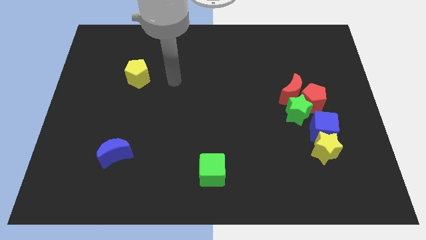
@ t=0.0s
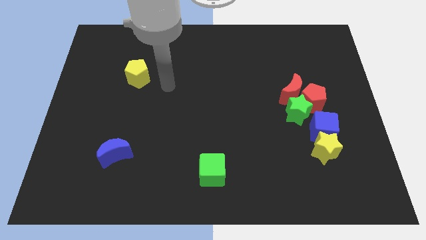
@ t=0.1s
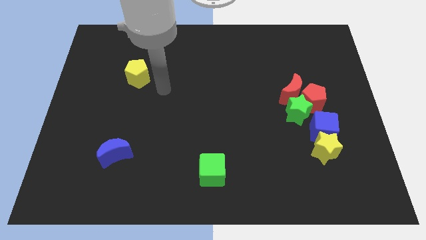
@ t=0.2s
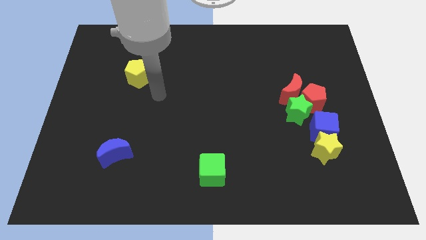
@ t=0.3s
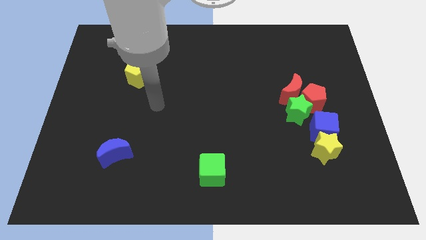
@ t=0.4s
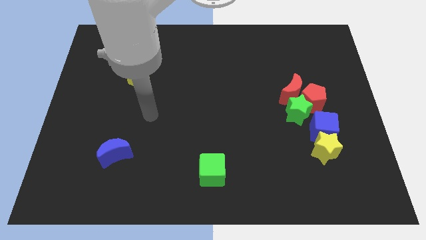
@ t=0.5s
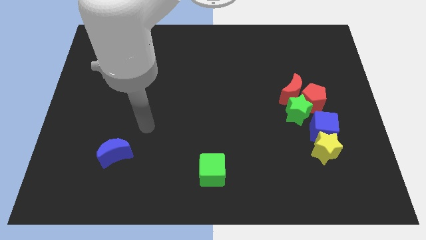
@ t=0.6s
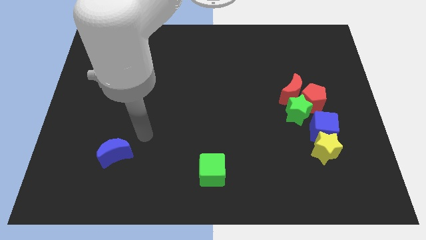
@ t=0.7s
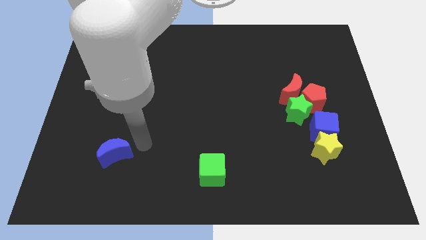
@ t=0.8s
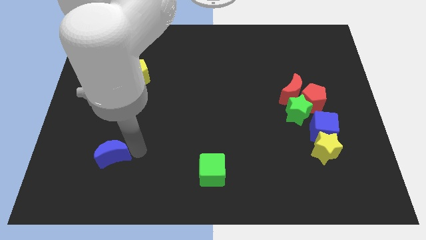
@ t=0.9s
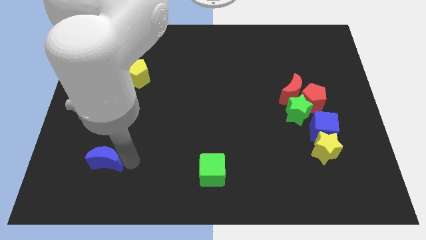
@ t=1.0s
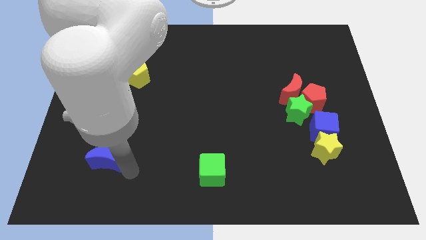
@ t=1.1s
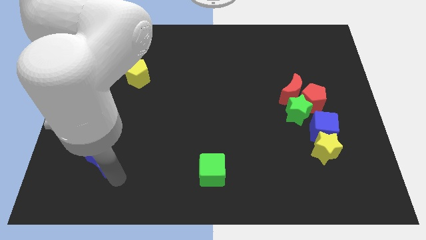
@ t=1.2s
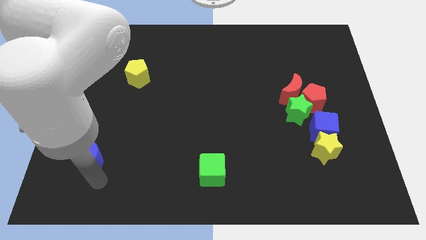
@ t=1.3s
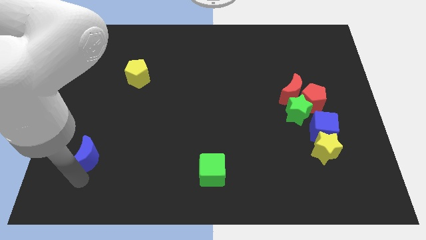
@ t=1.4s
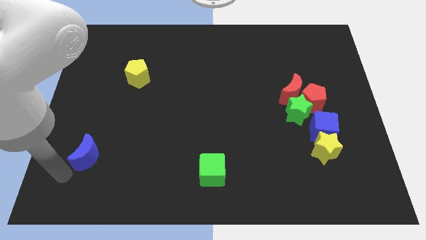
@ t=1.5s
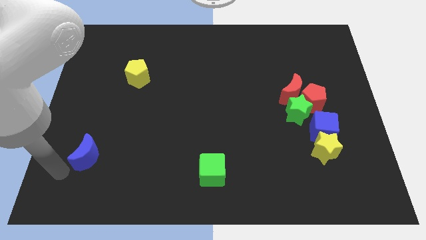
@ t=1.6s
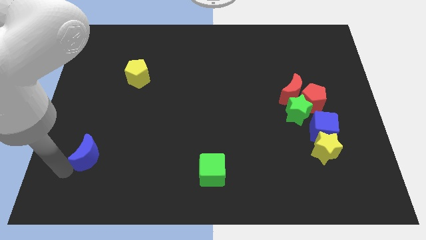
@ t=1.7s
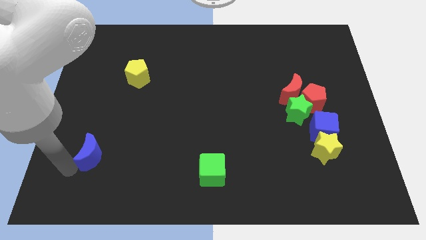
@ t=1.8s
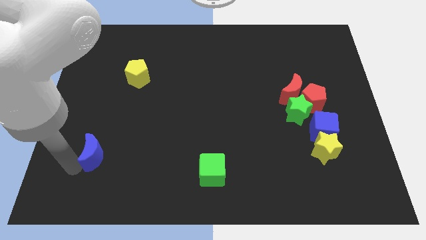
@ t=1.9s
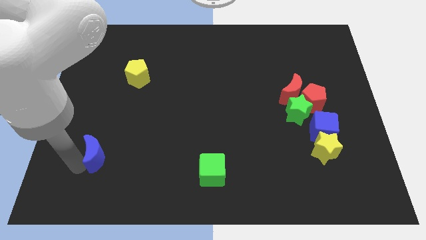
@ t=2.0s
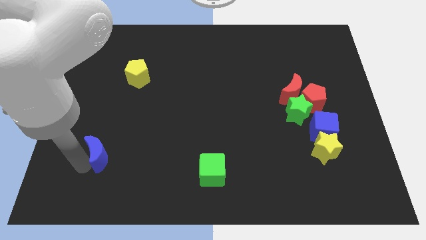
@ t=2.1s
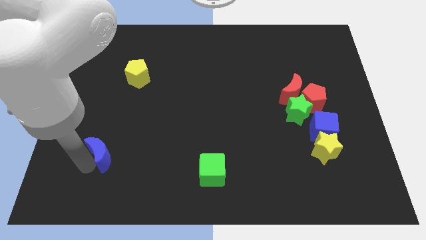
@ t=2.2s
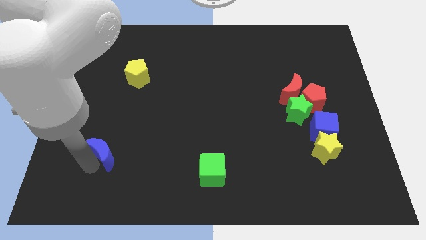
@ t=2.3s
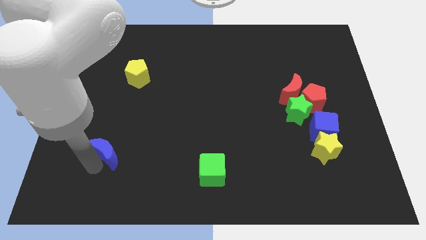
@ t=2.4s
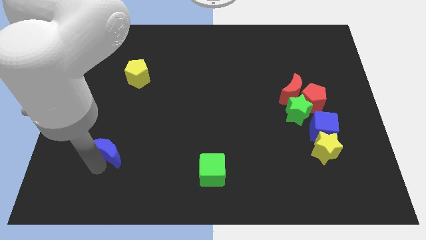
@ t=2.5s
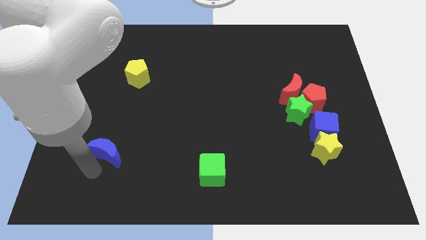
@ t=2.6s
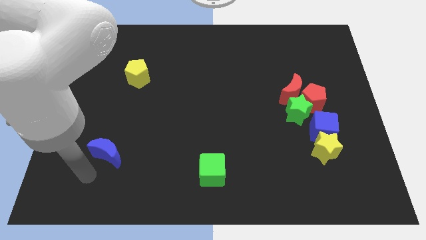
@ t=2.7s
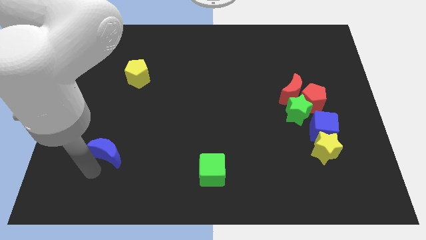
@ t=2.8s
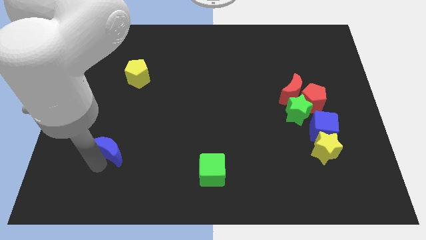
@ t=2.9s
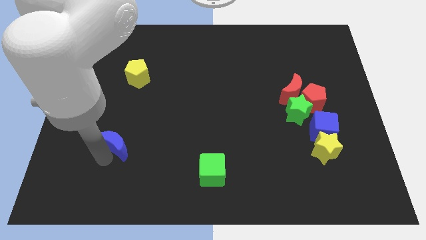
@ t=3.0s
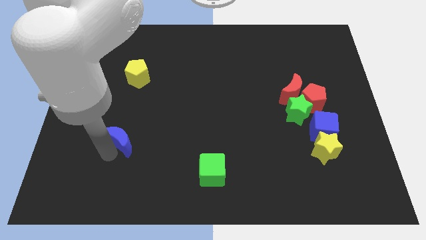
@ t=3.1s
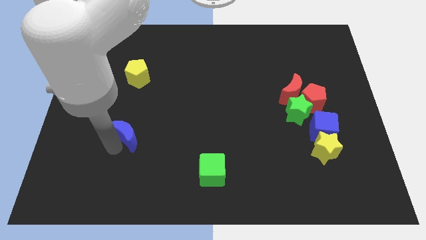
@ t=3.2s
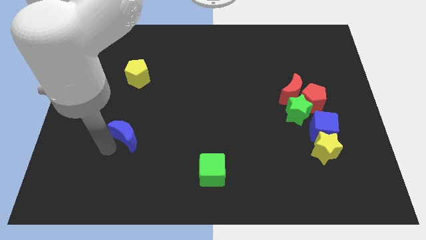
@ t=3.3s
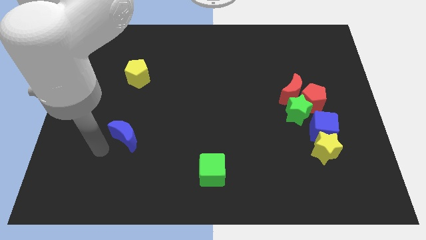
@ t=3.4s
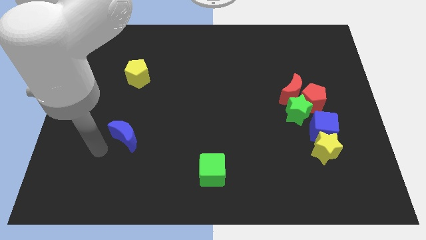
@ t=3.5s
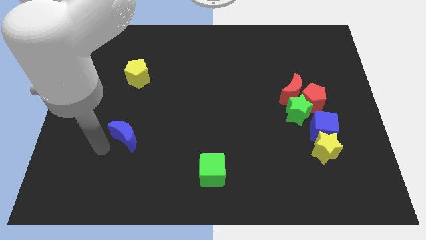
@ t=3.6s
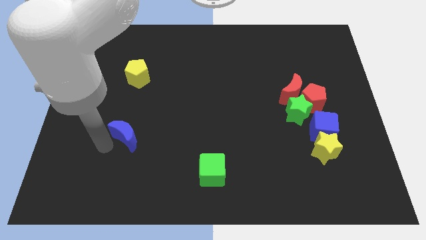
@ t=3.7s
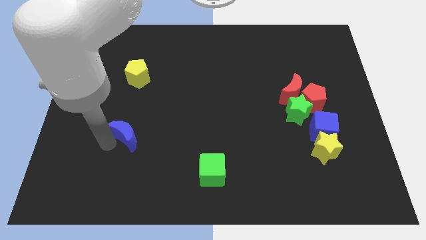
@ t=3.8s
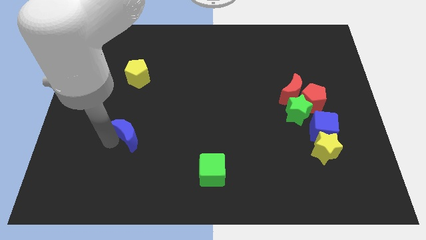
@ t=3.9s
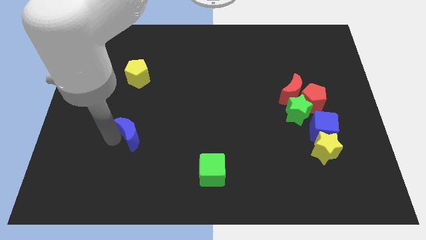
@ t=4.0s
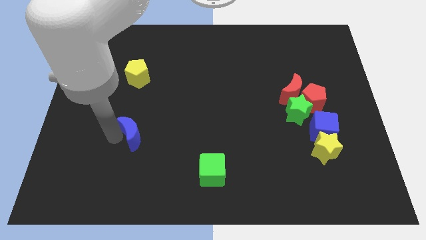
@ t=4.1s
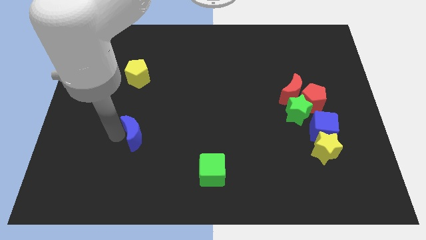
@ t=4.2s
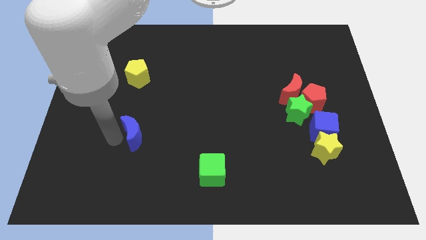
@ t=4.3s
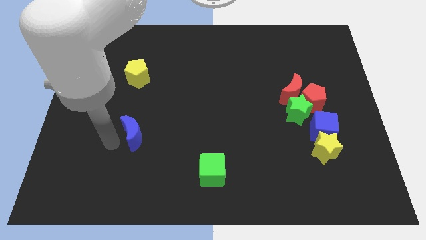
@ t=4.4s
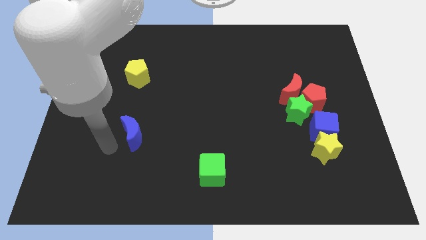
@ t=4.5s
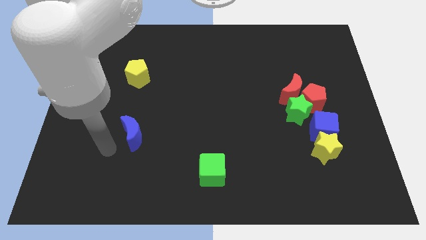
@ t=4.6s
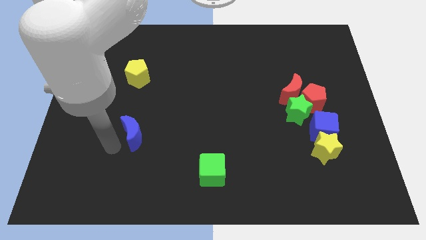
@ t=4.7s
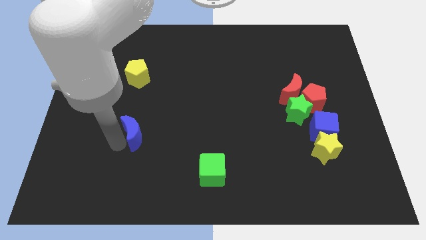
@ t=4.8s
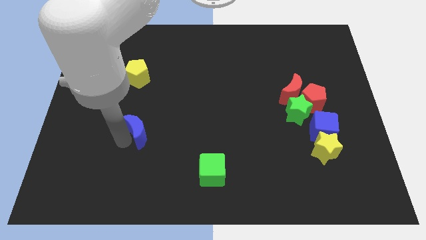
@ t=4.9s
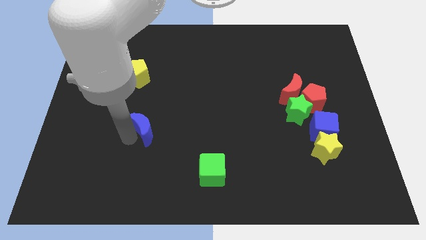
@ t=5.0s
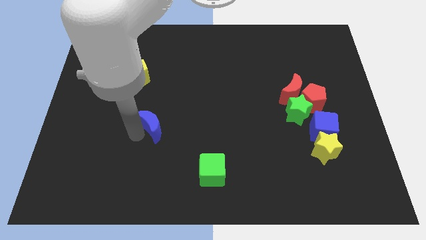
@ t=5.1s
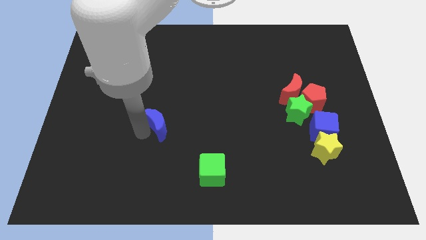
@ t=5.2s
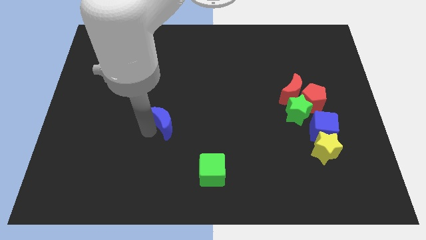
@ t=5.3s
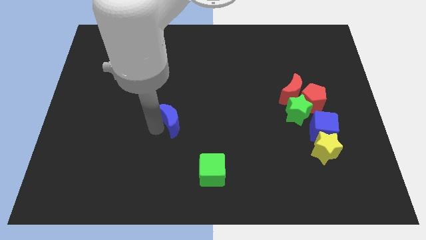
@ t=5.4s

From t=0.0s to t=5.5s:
move the blue moon to the center

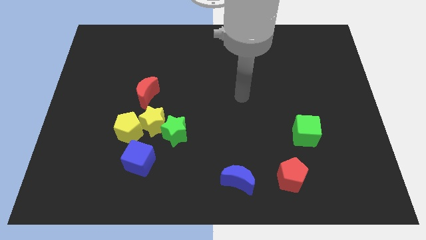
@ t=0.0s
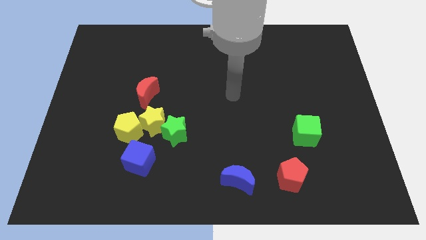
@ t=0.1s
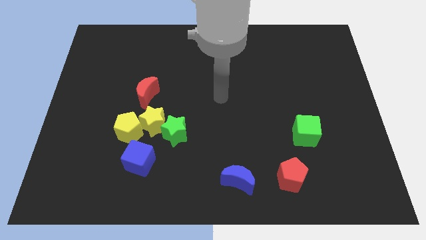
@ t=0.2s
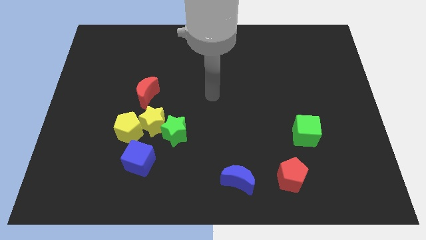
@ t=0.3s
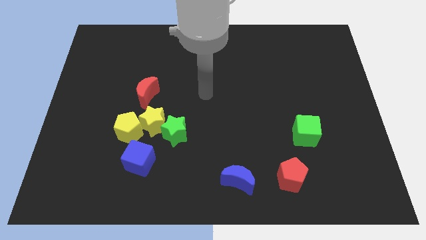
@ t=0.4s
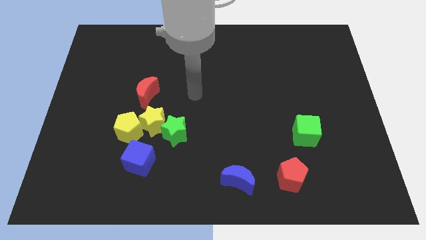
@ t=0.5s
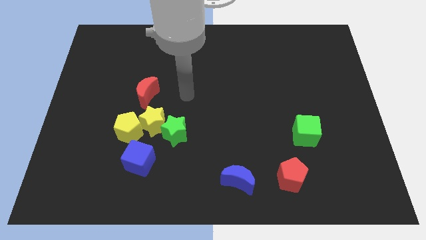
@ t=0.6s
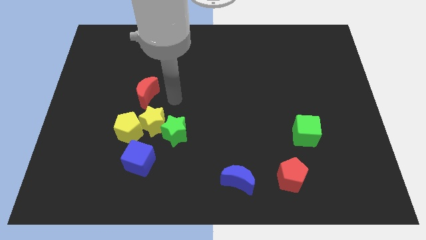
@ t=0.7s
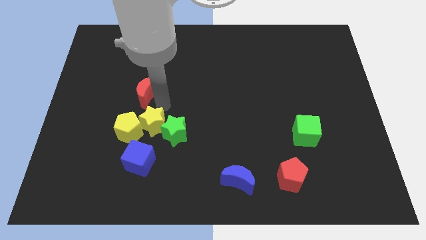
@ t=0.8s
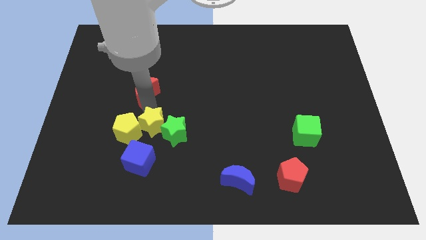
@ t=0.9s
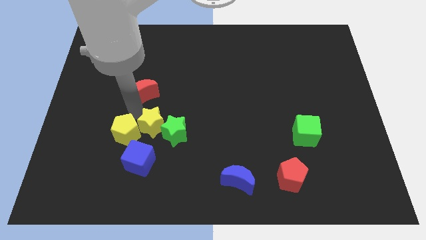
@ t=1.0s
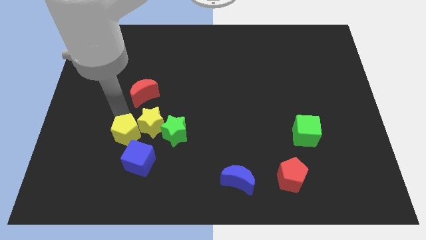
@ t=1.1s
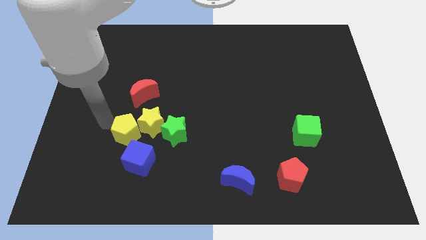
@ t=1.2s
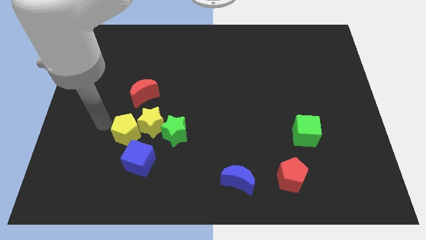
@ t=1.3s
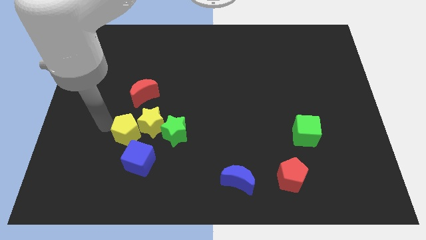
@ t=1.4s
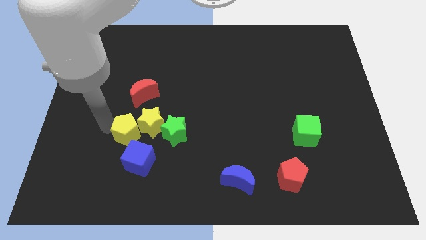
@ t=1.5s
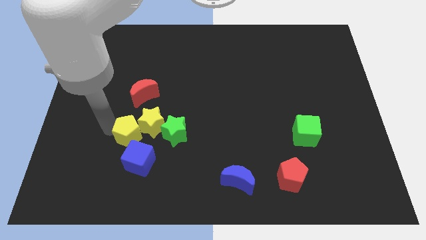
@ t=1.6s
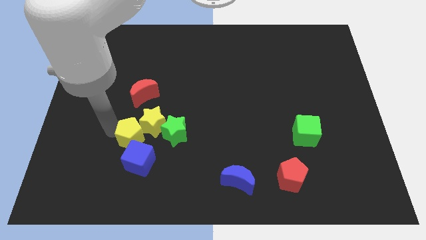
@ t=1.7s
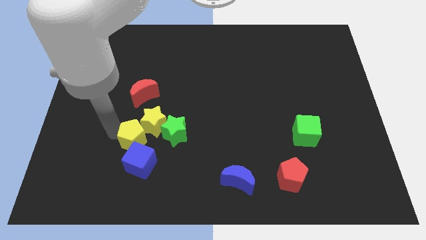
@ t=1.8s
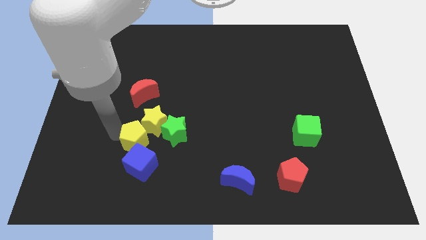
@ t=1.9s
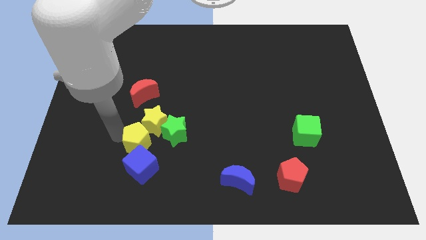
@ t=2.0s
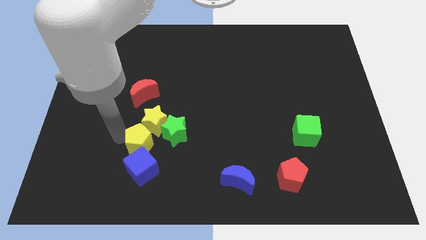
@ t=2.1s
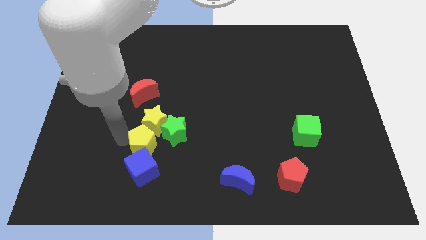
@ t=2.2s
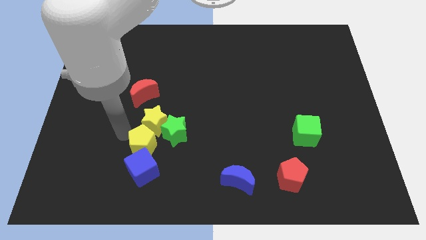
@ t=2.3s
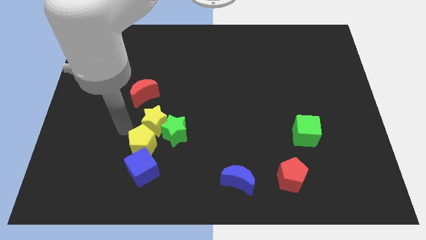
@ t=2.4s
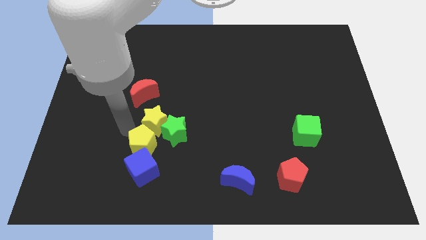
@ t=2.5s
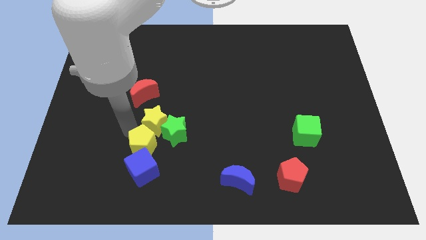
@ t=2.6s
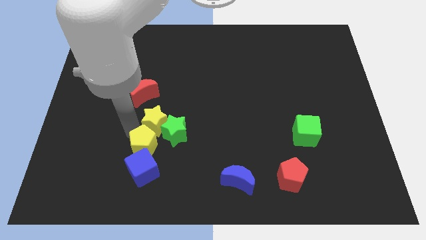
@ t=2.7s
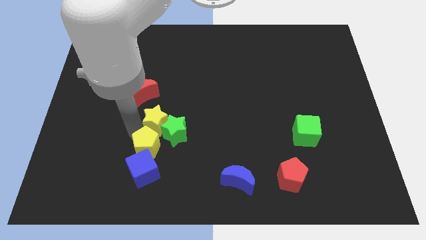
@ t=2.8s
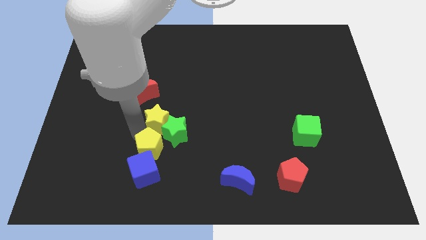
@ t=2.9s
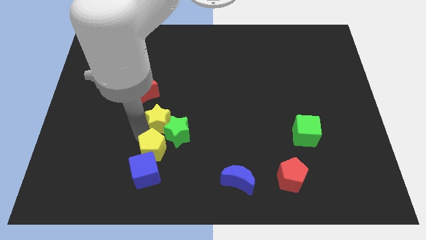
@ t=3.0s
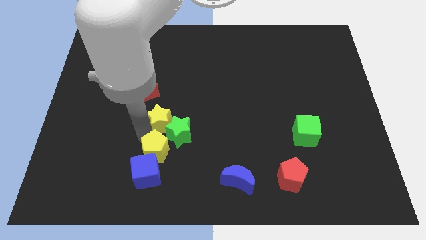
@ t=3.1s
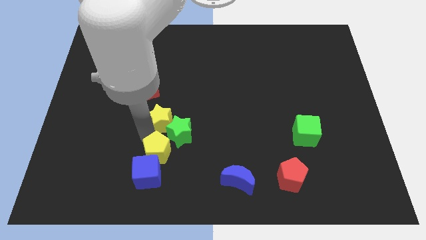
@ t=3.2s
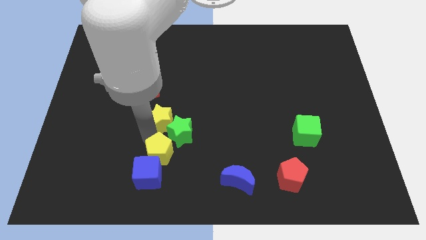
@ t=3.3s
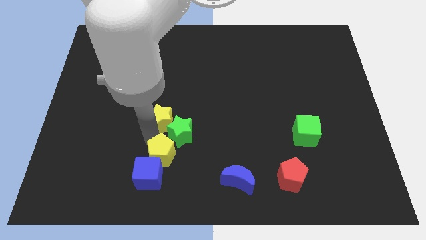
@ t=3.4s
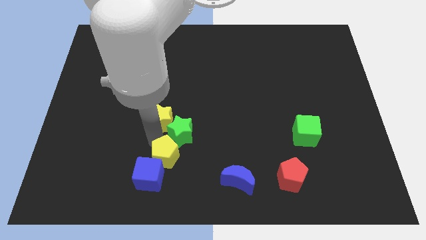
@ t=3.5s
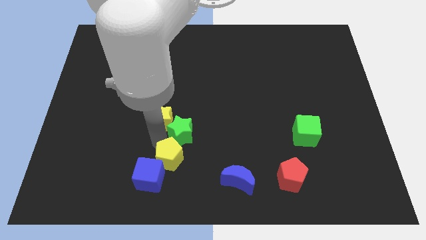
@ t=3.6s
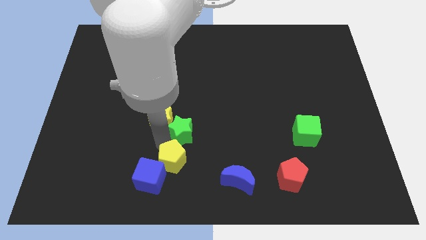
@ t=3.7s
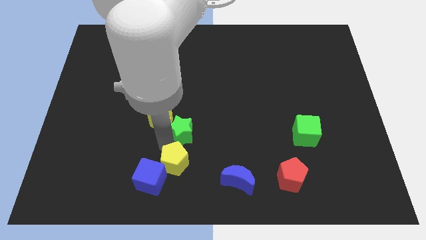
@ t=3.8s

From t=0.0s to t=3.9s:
slide the yellow pentagon to the bottom
